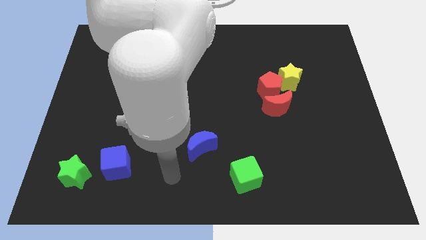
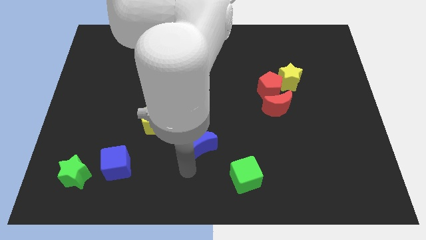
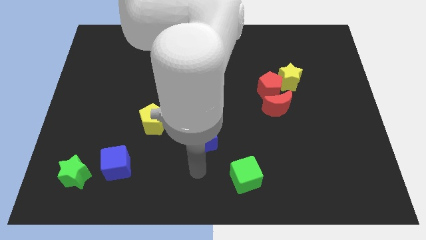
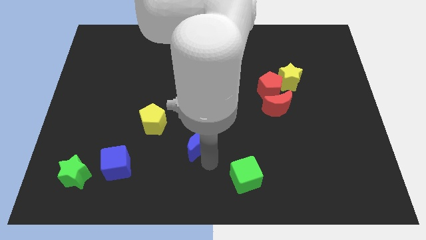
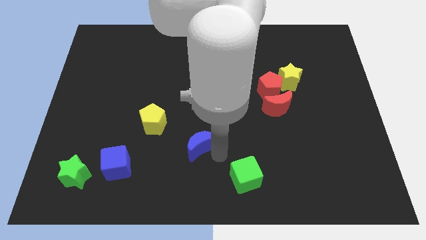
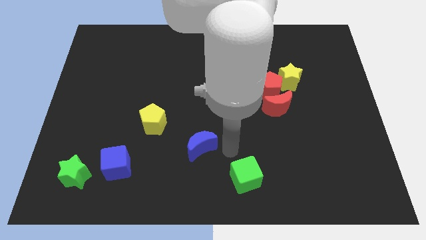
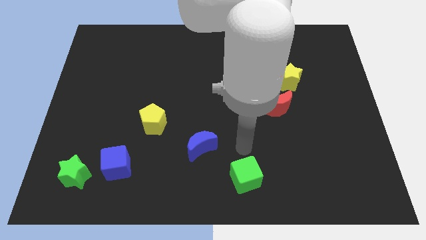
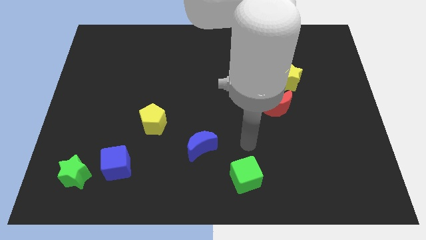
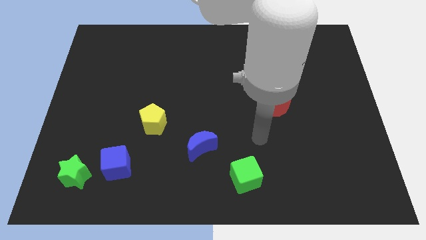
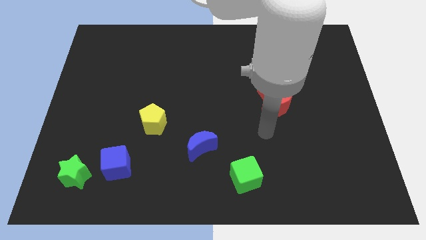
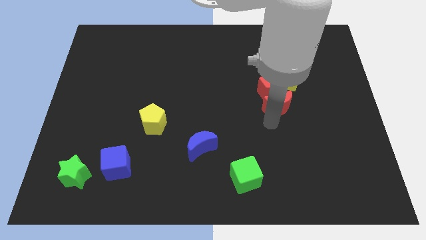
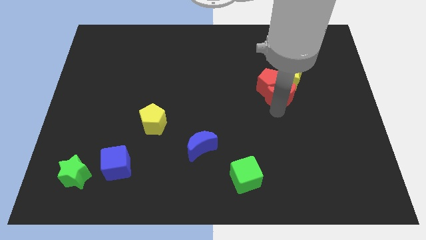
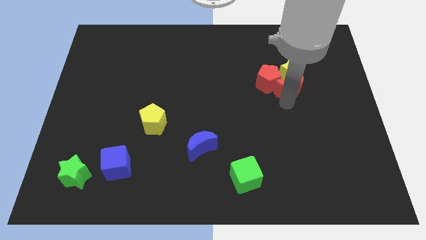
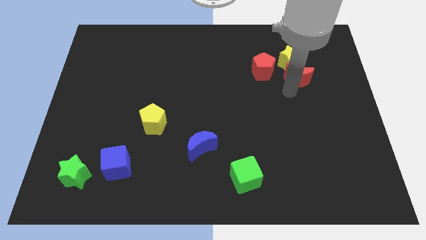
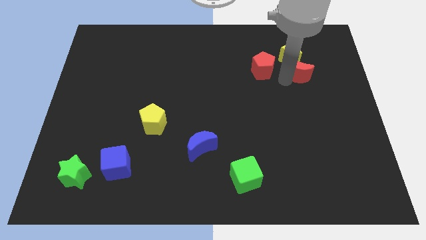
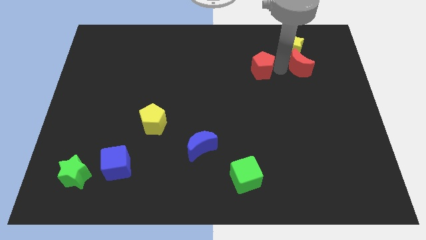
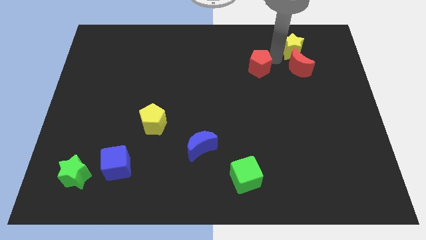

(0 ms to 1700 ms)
pull the red pentagon apart from the yellow star and red moon

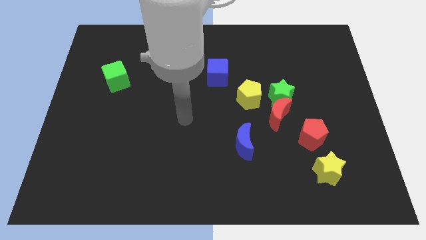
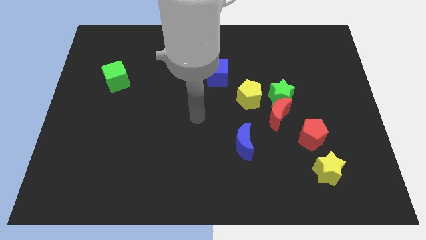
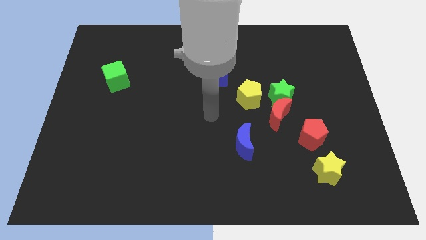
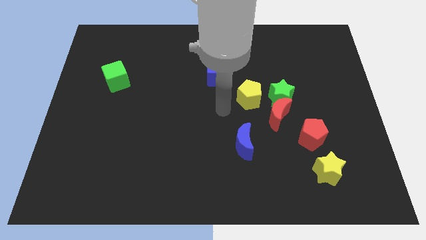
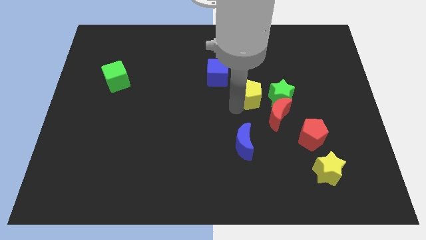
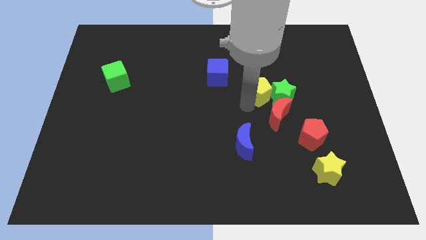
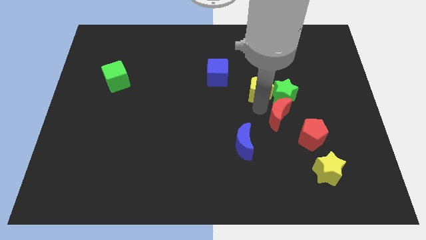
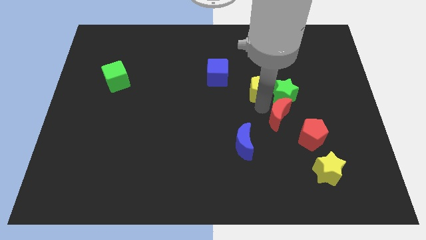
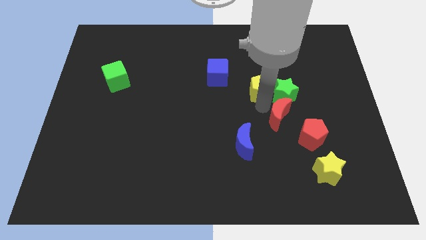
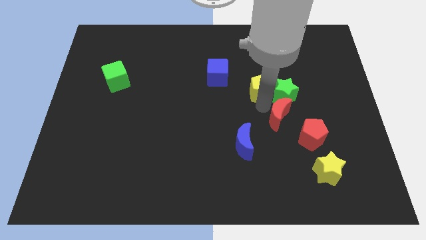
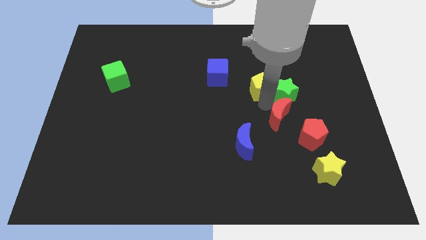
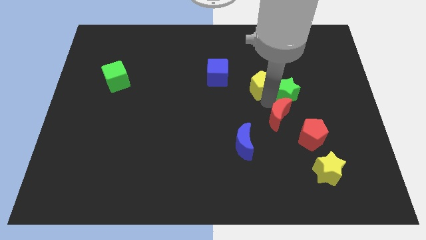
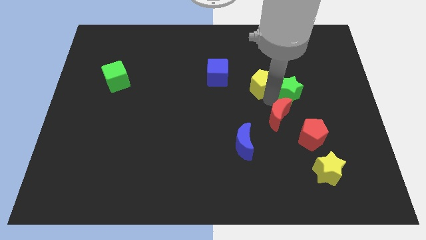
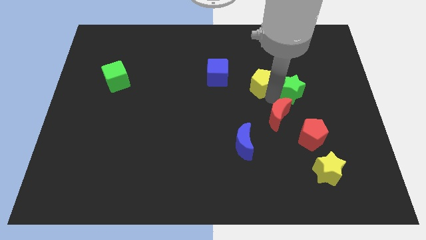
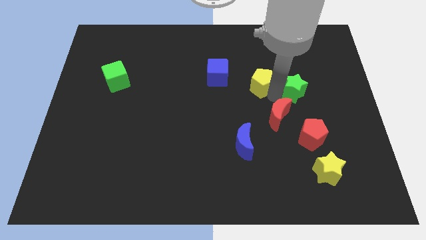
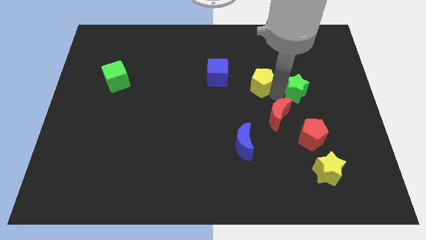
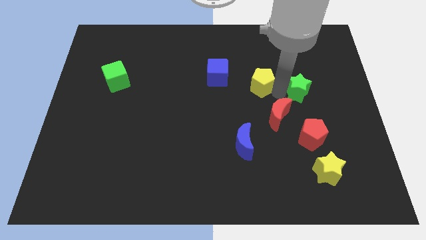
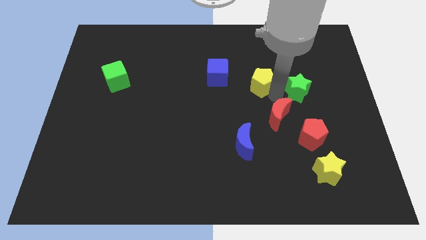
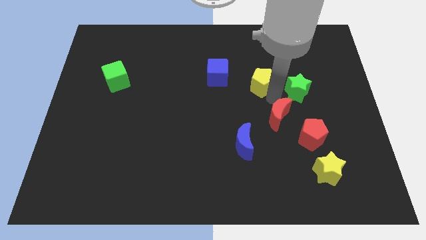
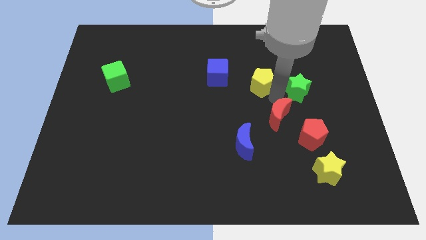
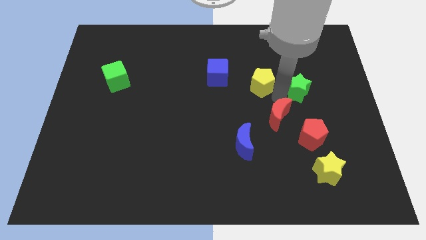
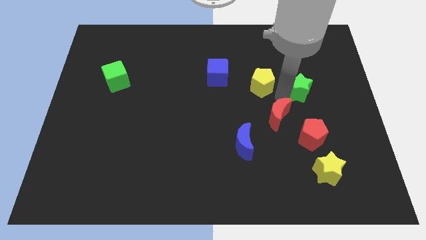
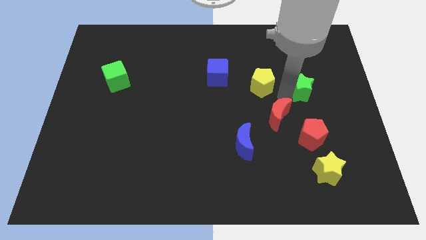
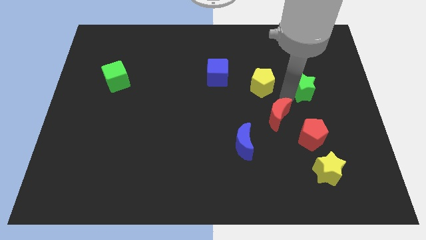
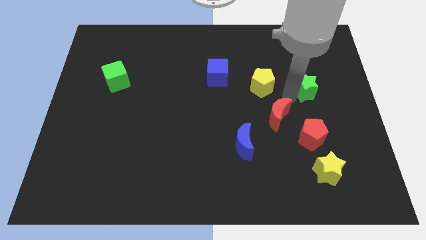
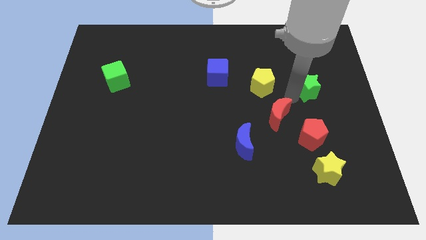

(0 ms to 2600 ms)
pull the green star apart from the red moon and yellow pentagon

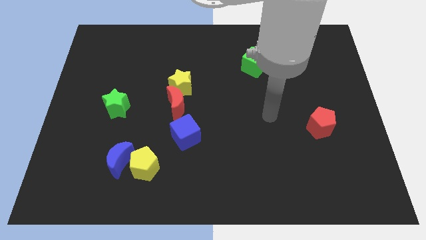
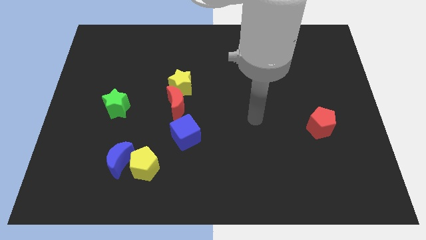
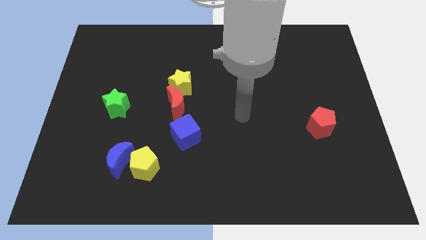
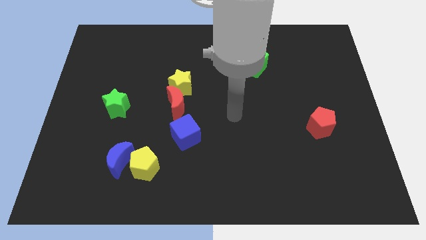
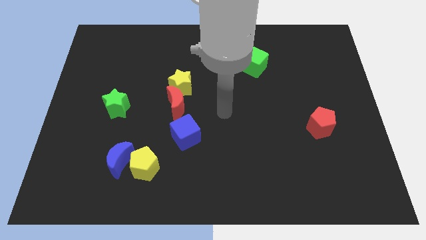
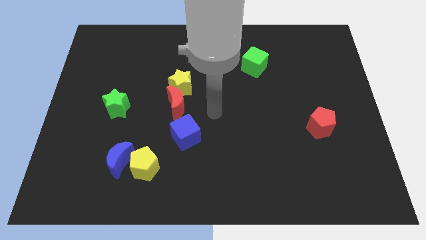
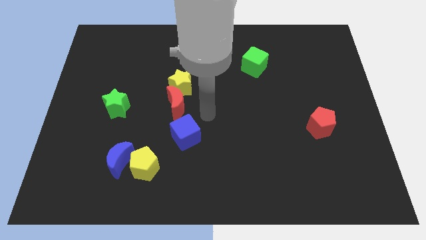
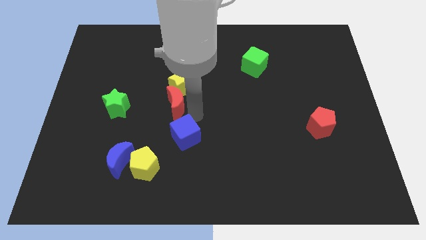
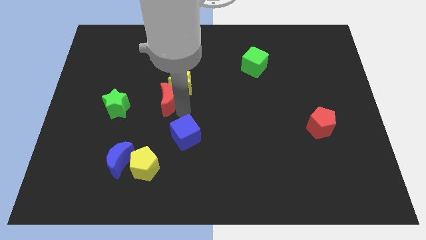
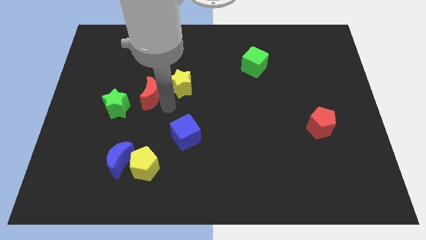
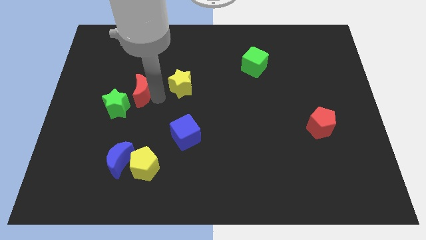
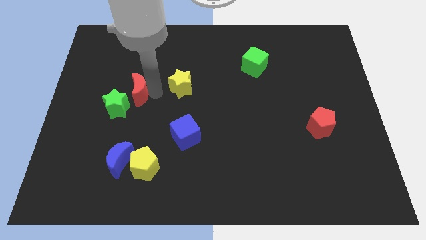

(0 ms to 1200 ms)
separate the yellow star from the red moon

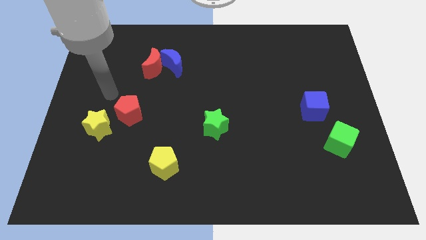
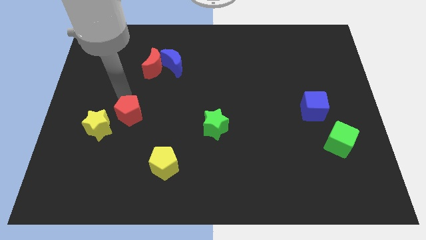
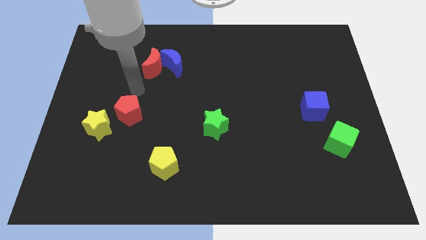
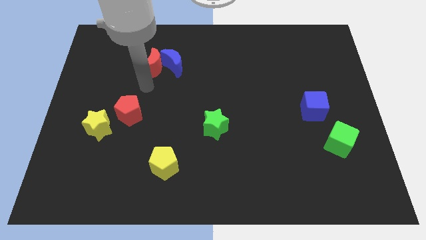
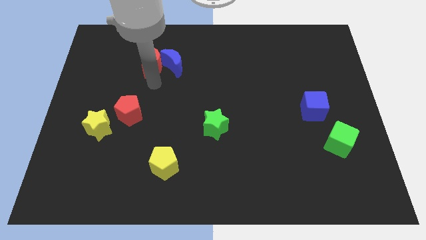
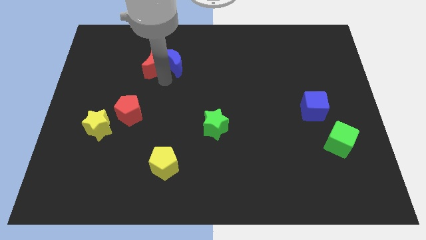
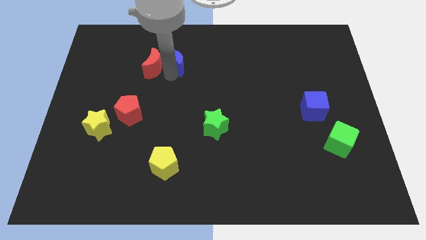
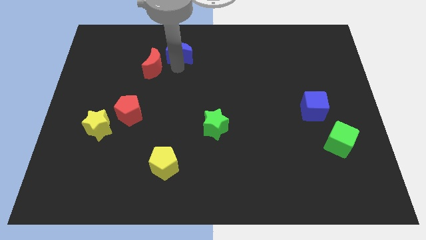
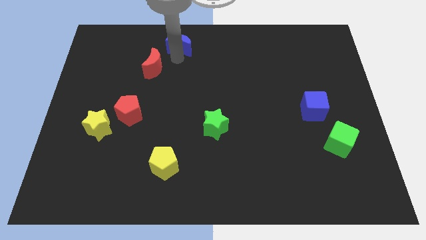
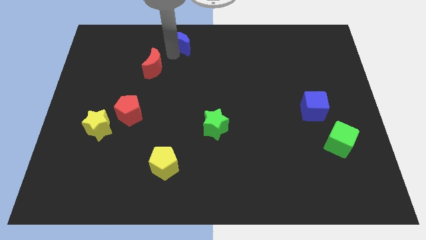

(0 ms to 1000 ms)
separate the red moon from the blue moon

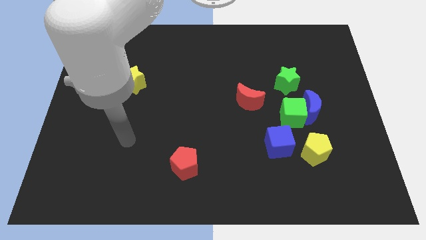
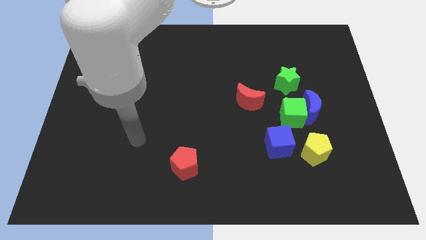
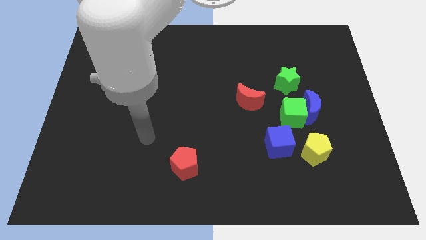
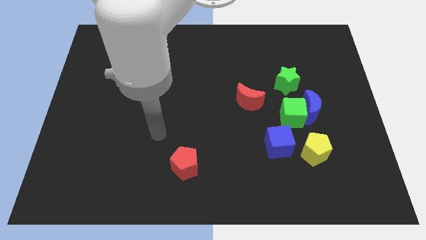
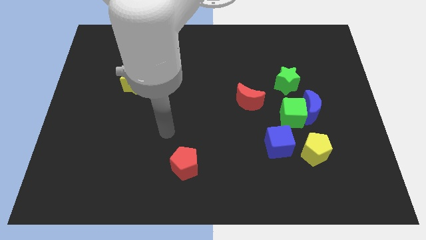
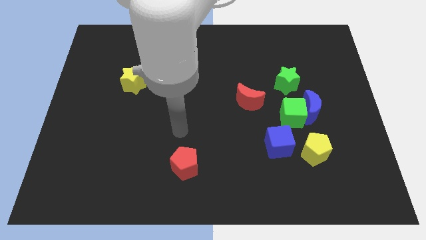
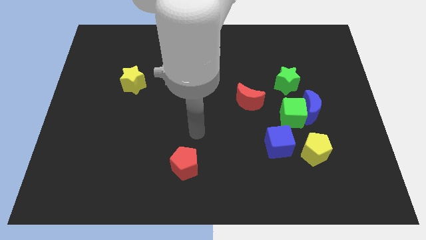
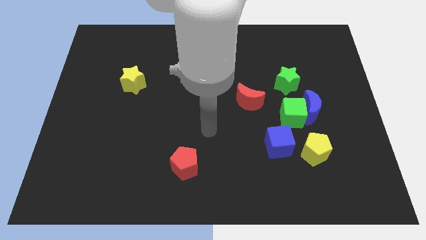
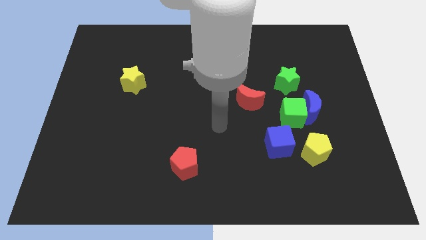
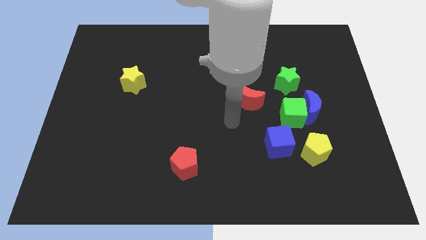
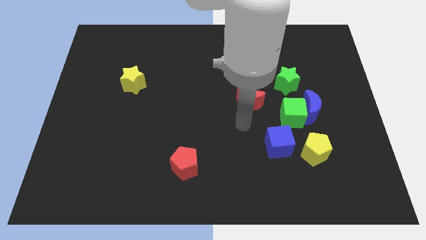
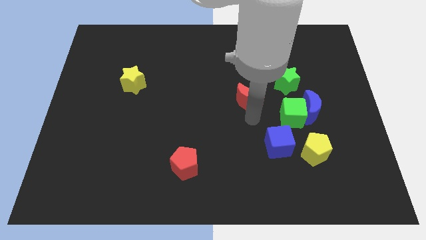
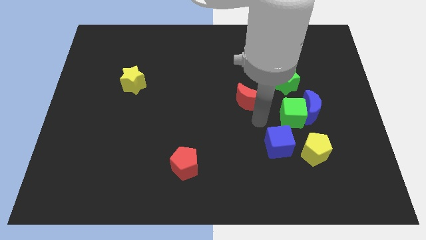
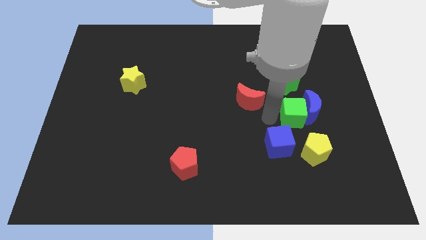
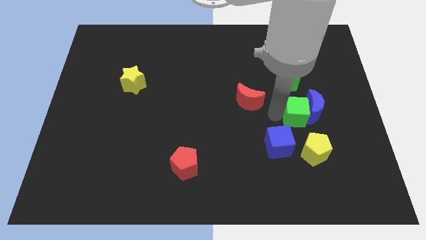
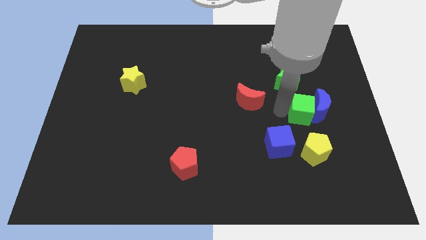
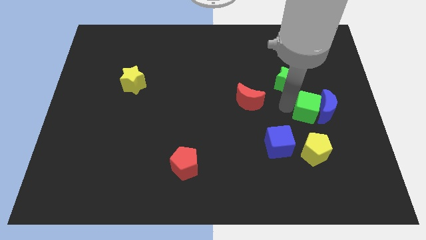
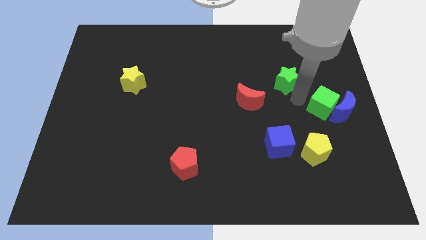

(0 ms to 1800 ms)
separate the blue moon from the green cube and green star

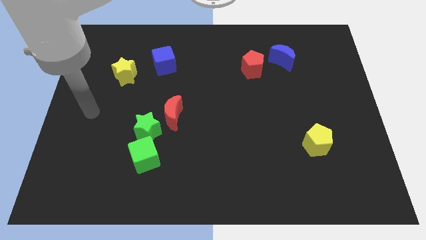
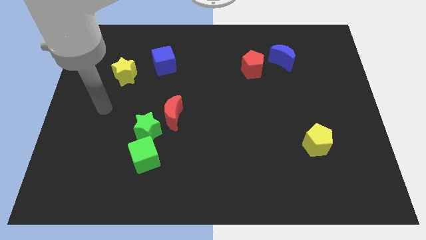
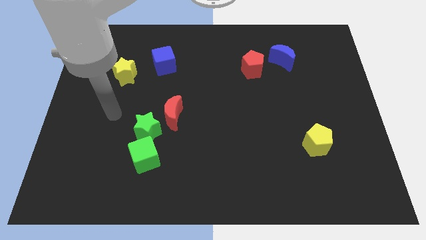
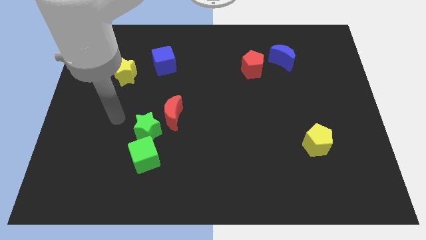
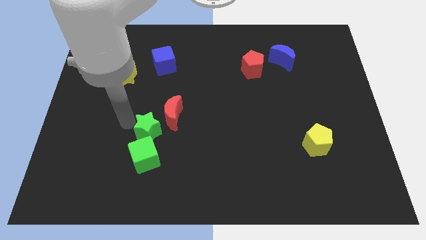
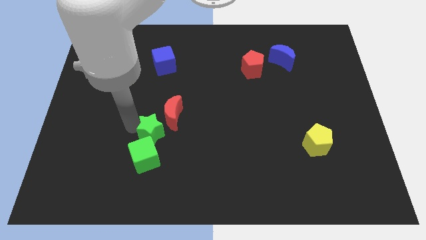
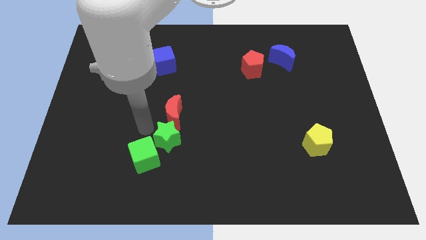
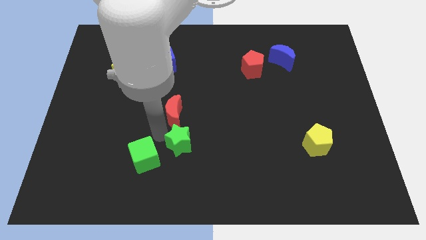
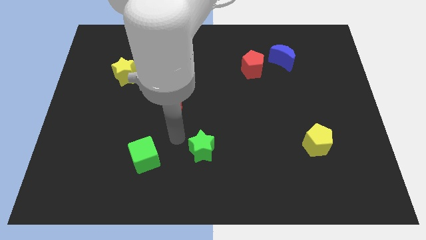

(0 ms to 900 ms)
pull the red moon apart from the green star

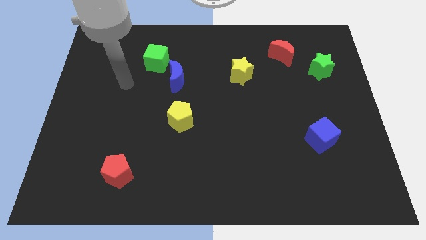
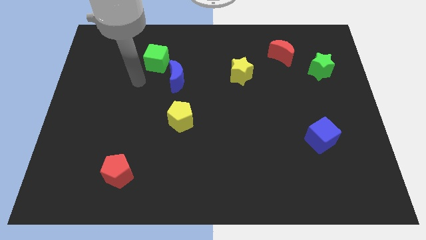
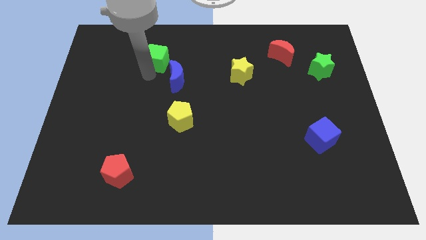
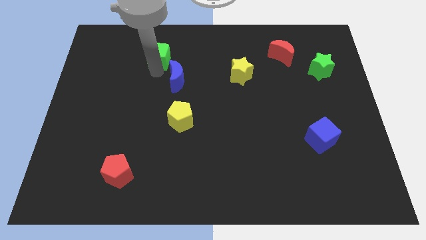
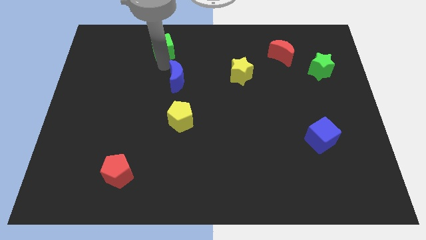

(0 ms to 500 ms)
pull the blue moon apart from the green cube
